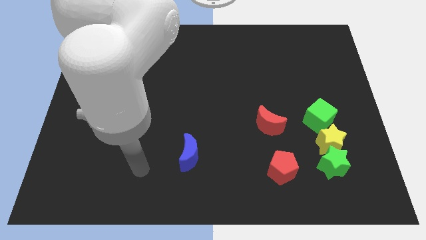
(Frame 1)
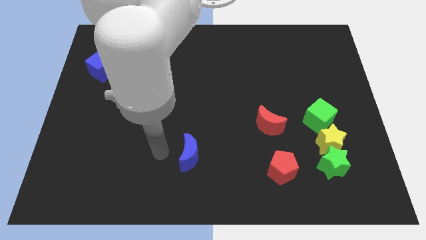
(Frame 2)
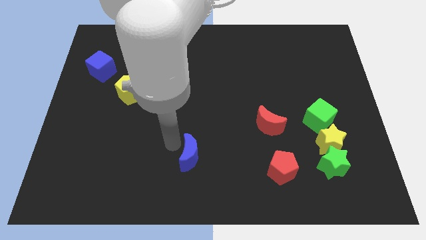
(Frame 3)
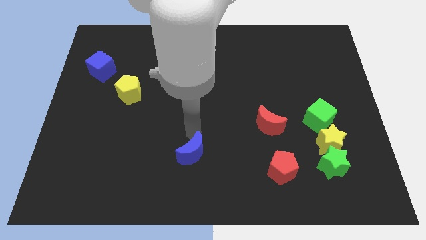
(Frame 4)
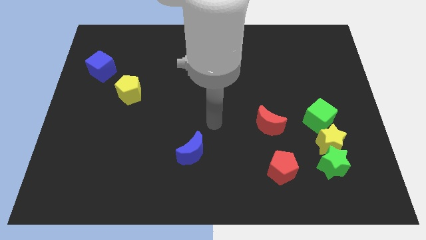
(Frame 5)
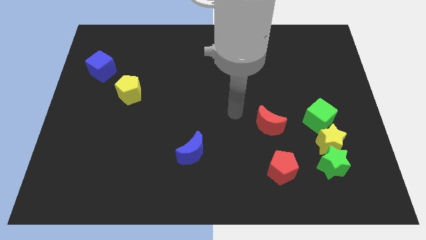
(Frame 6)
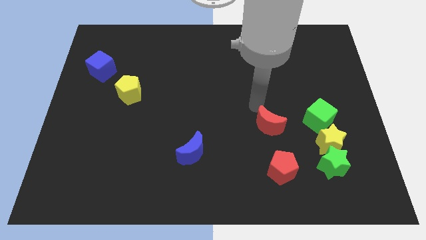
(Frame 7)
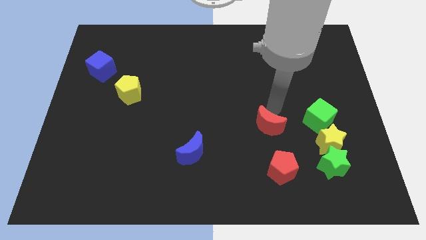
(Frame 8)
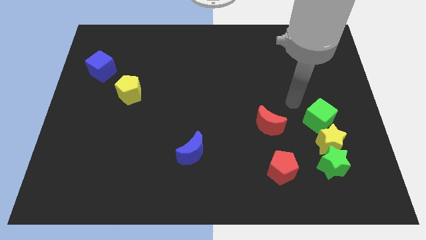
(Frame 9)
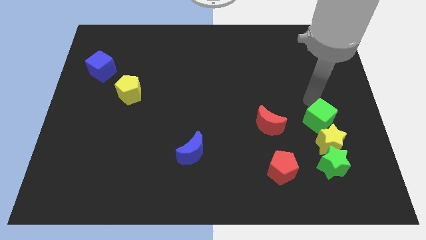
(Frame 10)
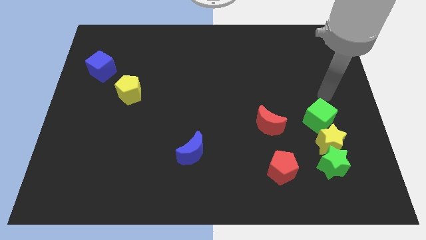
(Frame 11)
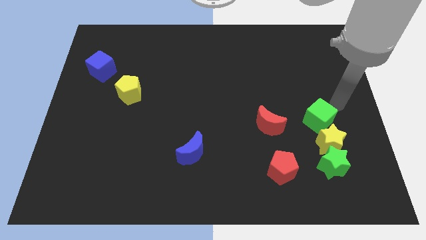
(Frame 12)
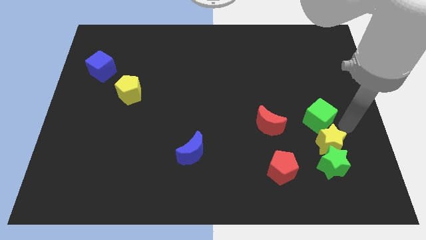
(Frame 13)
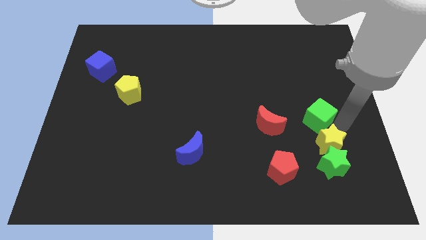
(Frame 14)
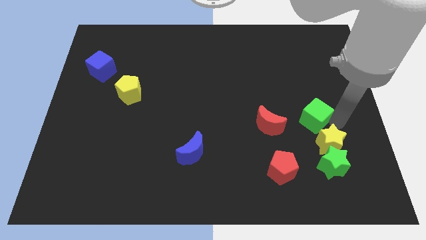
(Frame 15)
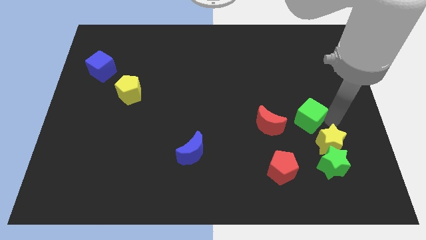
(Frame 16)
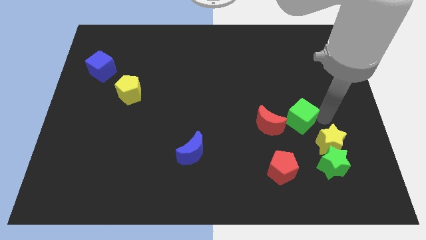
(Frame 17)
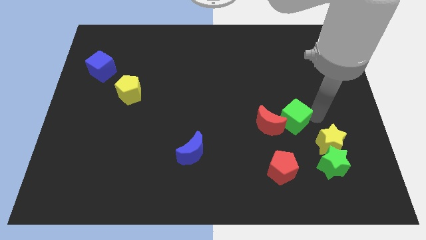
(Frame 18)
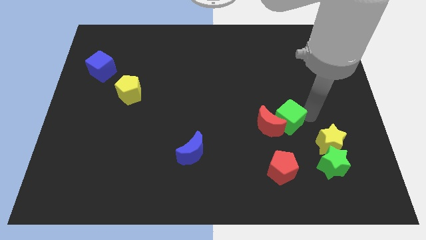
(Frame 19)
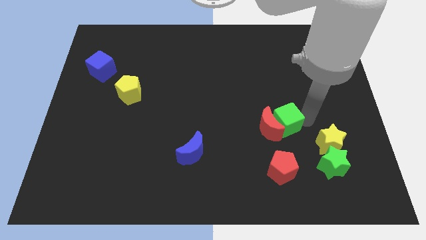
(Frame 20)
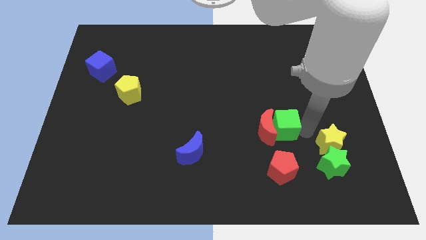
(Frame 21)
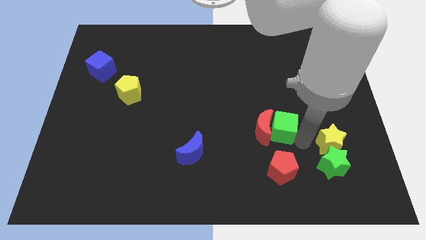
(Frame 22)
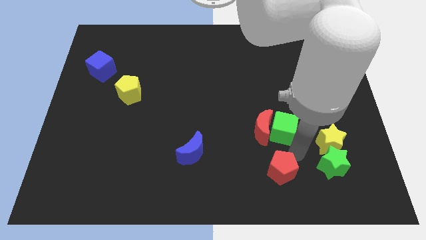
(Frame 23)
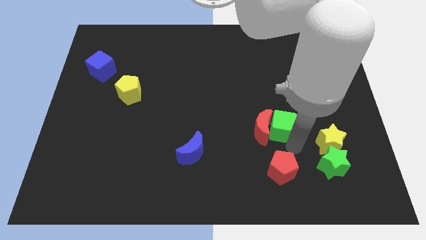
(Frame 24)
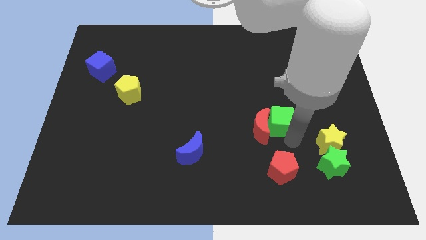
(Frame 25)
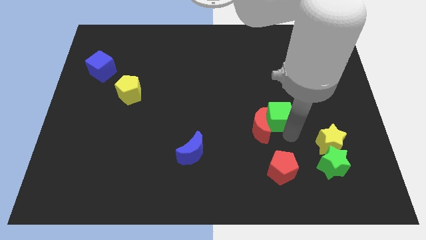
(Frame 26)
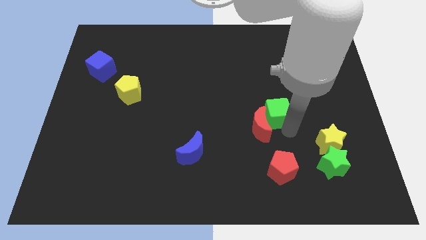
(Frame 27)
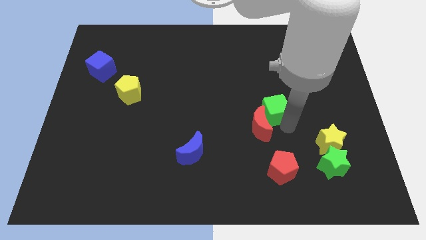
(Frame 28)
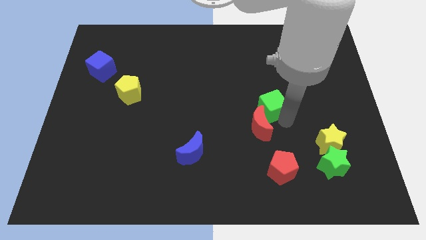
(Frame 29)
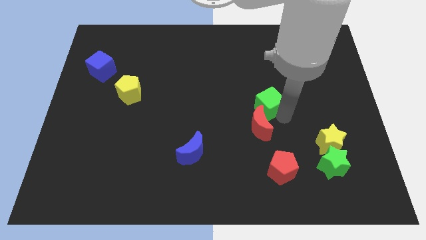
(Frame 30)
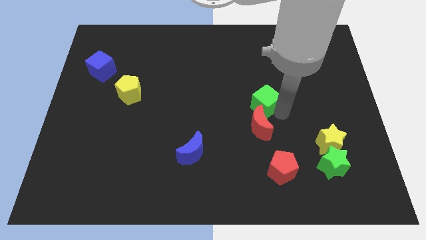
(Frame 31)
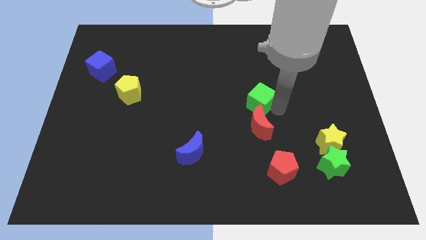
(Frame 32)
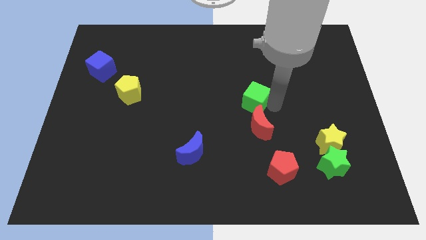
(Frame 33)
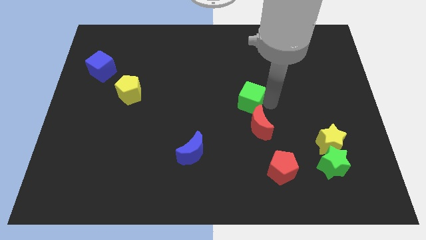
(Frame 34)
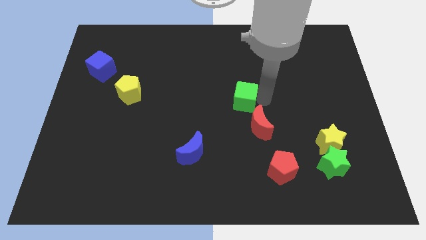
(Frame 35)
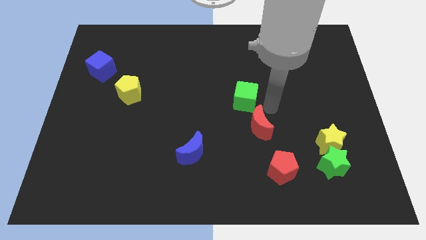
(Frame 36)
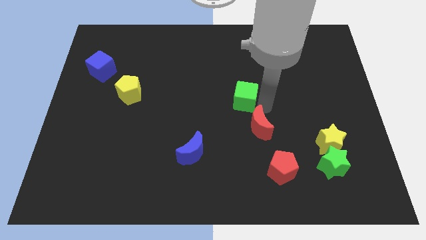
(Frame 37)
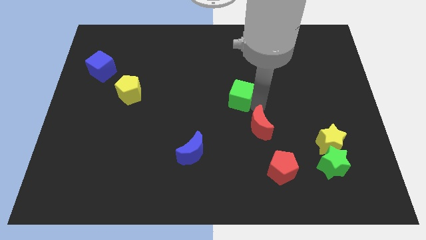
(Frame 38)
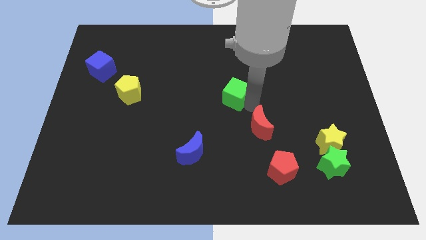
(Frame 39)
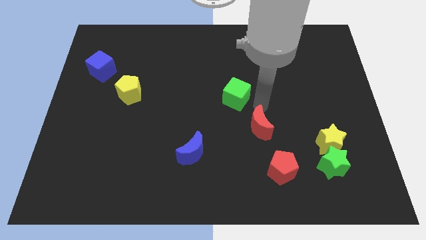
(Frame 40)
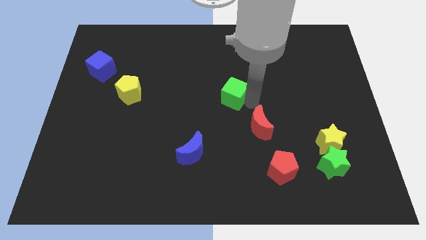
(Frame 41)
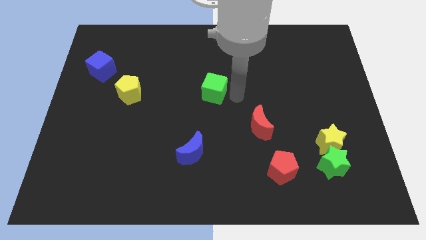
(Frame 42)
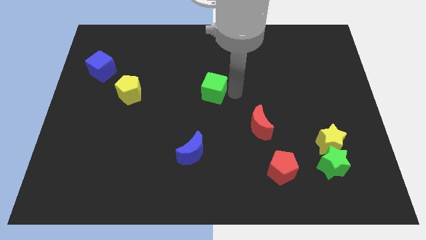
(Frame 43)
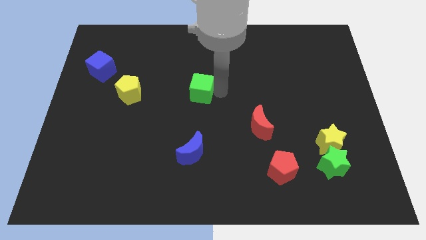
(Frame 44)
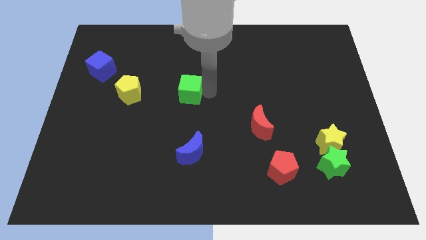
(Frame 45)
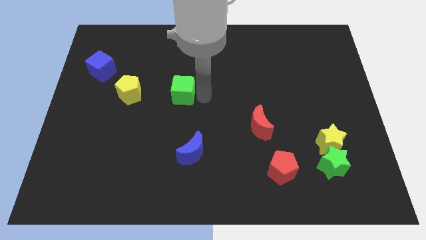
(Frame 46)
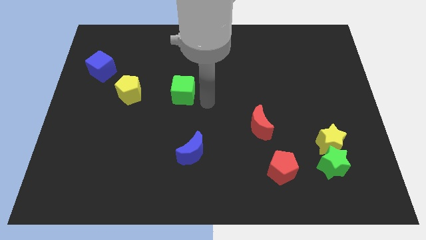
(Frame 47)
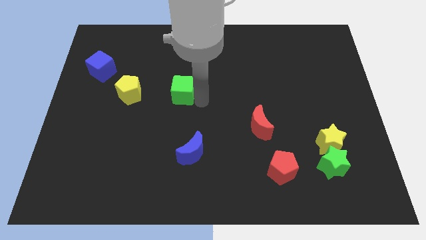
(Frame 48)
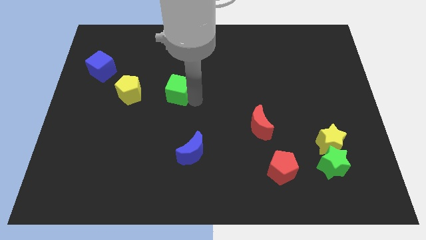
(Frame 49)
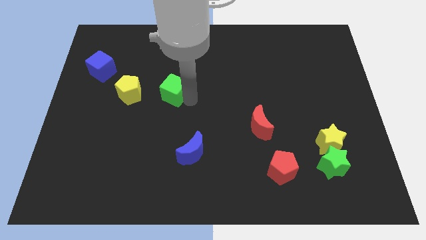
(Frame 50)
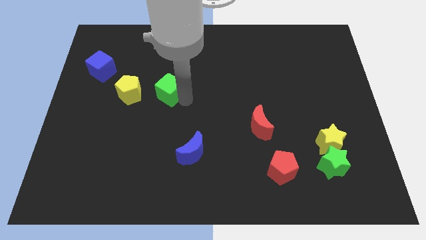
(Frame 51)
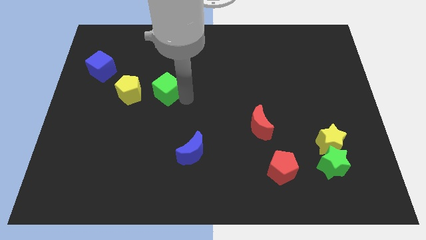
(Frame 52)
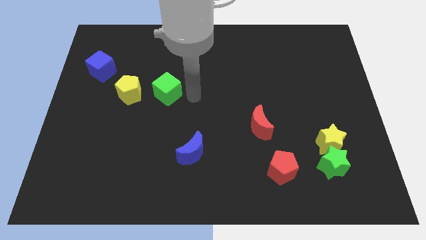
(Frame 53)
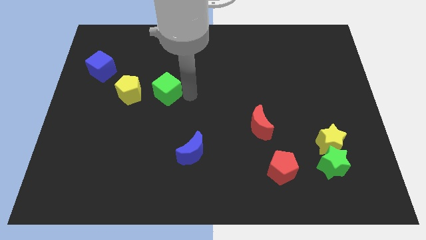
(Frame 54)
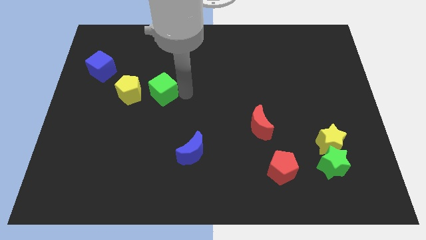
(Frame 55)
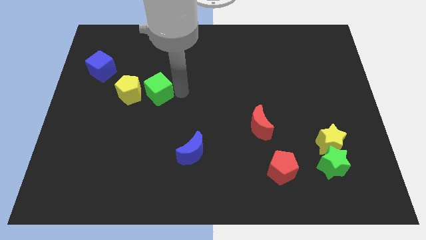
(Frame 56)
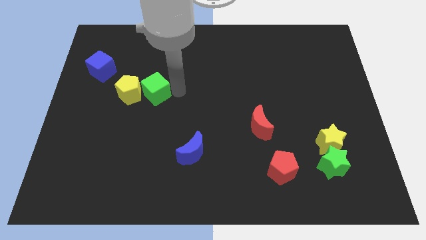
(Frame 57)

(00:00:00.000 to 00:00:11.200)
put the green cube towards the yellow pentagon

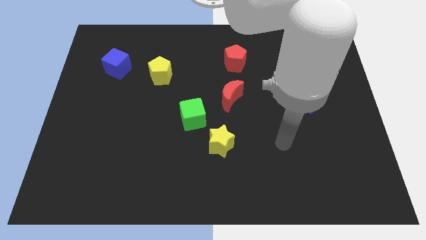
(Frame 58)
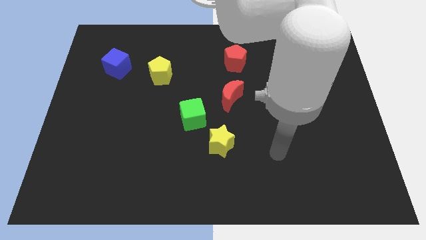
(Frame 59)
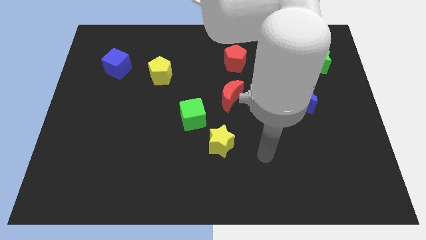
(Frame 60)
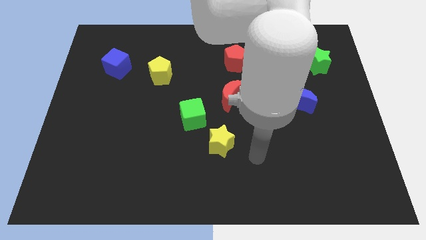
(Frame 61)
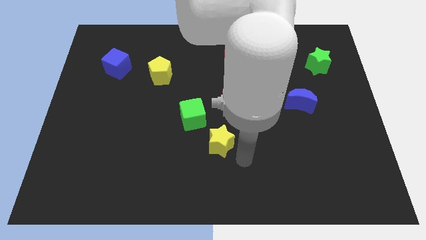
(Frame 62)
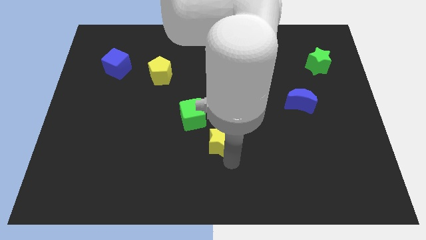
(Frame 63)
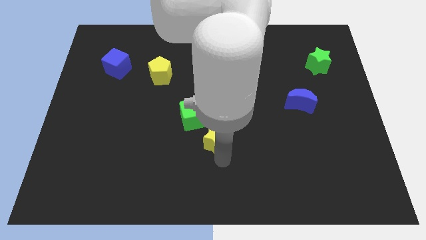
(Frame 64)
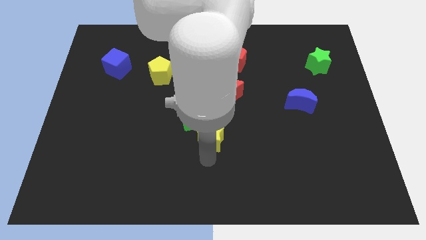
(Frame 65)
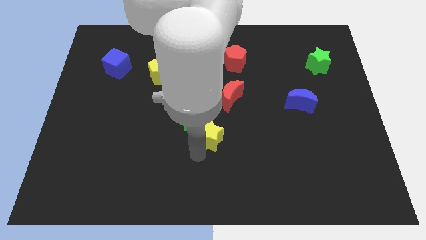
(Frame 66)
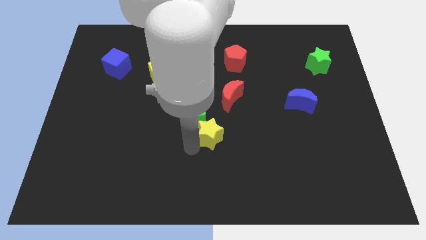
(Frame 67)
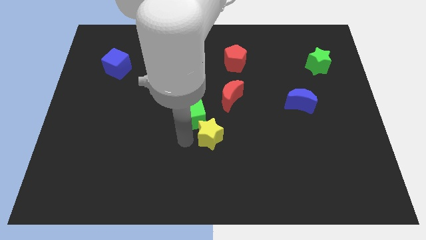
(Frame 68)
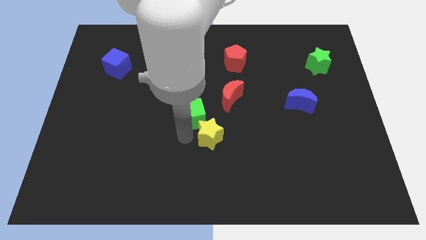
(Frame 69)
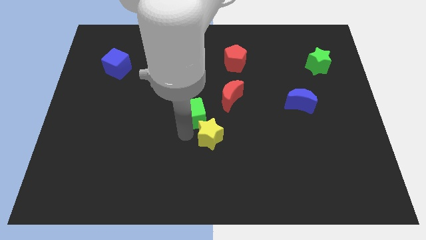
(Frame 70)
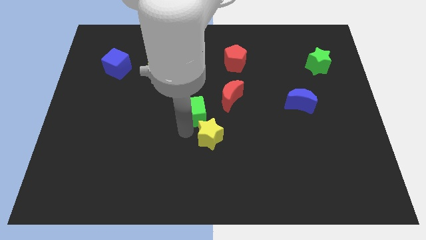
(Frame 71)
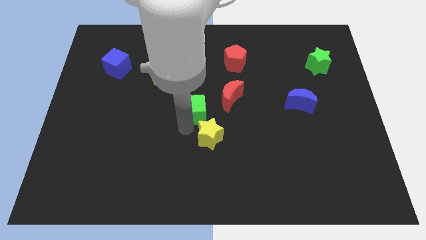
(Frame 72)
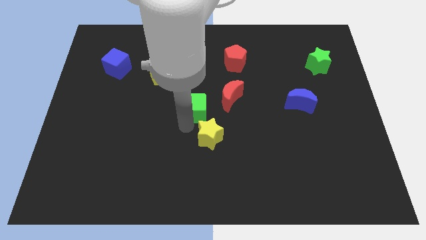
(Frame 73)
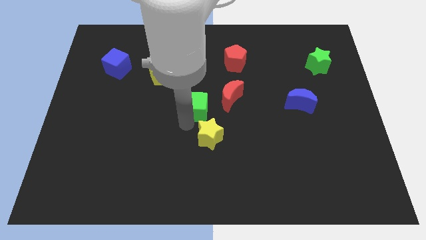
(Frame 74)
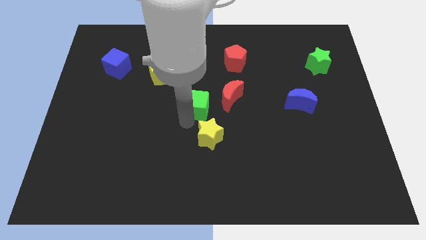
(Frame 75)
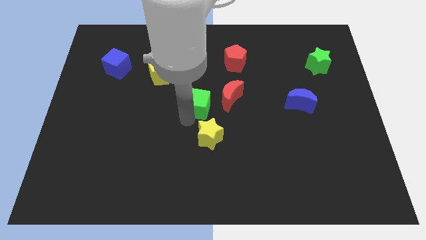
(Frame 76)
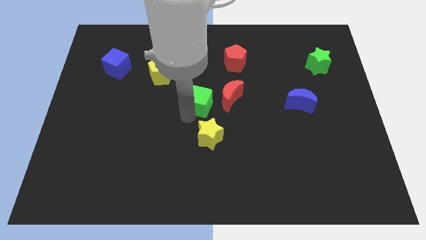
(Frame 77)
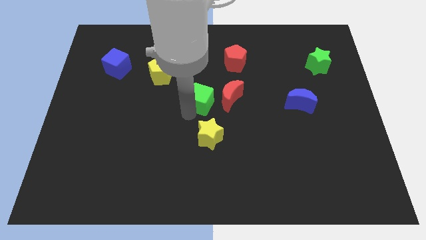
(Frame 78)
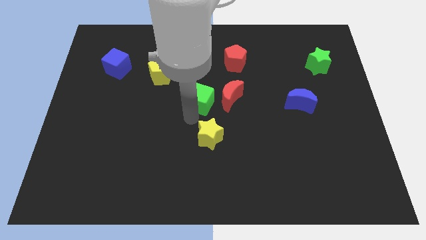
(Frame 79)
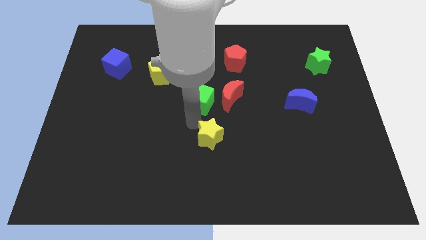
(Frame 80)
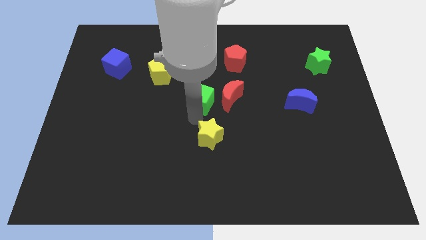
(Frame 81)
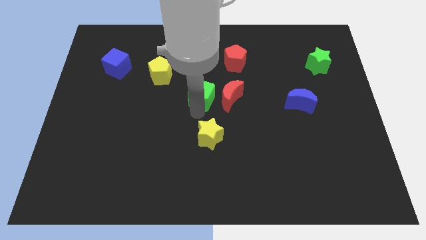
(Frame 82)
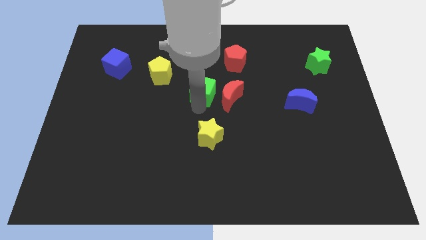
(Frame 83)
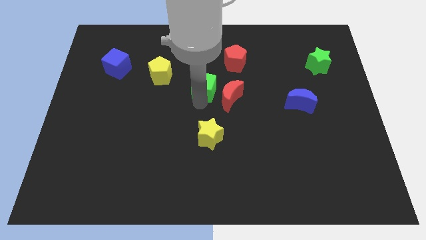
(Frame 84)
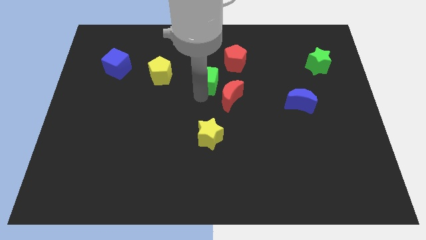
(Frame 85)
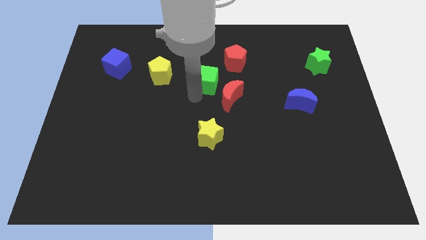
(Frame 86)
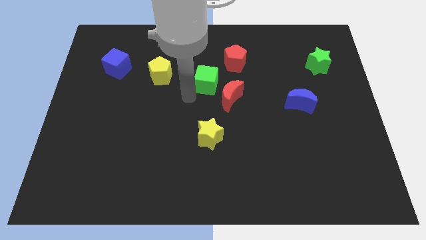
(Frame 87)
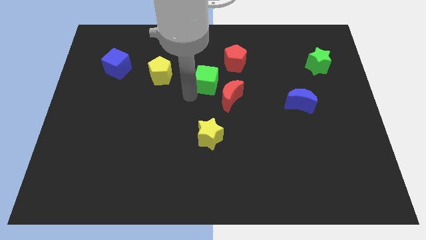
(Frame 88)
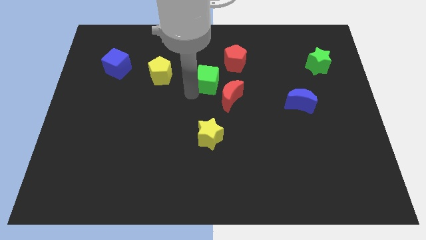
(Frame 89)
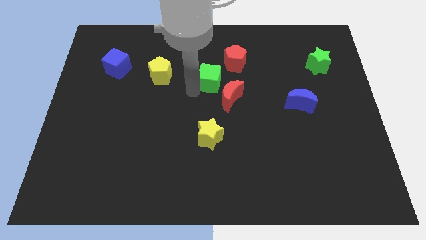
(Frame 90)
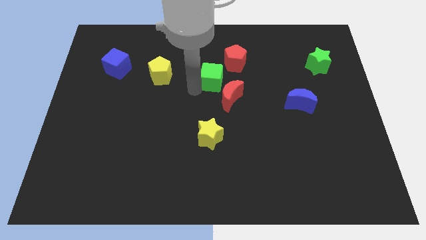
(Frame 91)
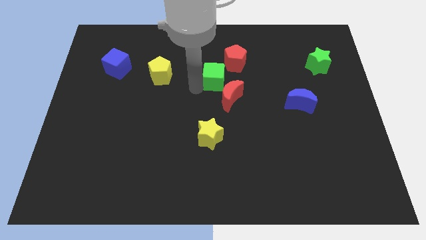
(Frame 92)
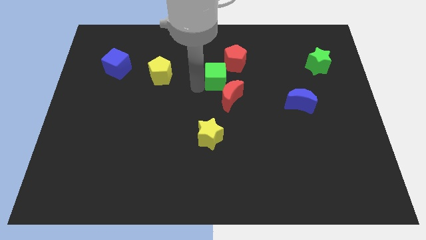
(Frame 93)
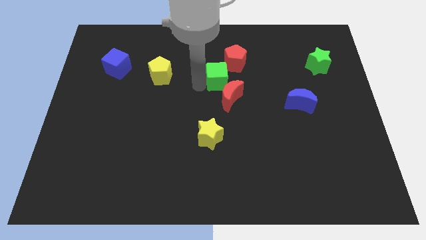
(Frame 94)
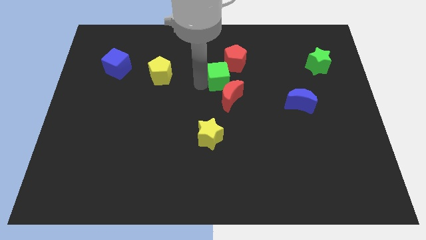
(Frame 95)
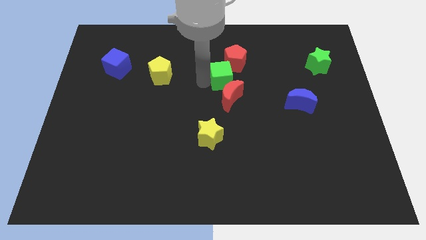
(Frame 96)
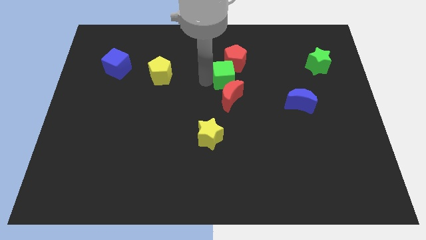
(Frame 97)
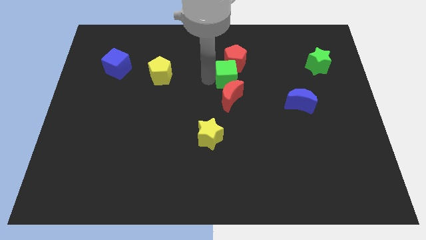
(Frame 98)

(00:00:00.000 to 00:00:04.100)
put the green cube to the red pentagon
